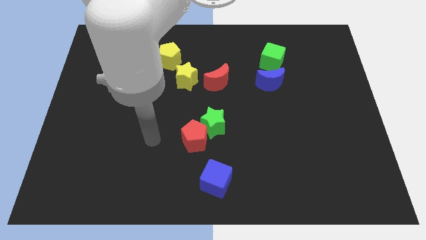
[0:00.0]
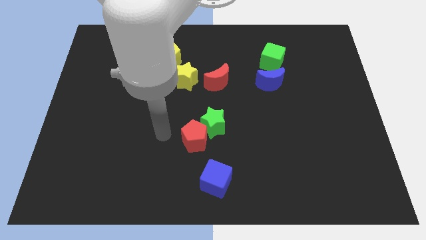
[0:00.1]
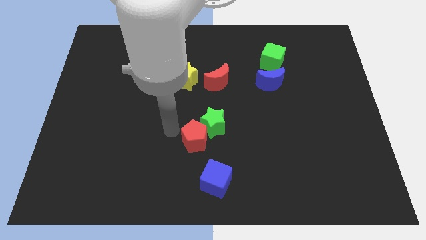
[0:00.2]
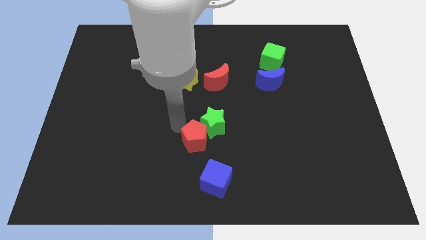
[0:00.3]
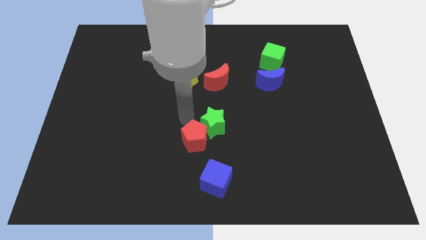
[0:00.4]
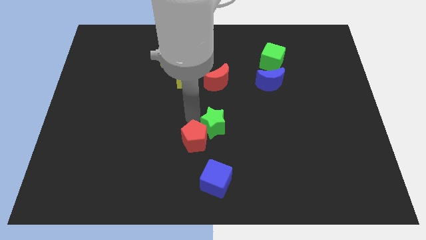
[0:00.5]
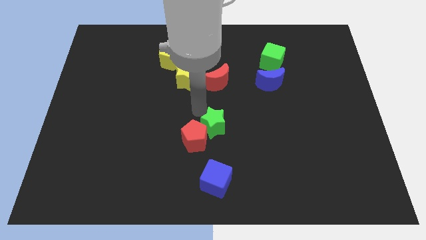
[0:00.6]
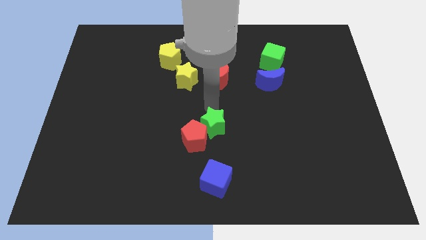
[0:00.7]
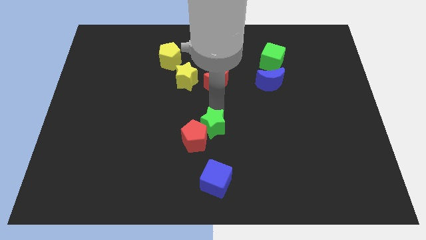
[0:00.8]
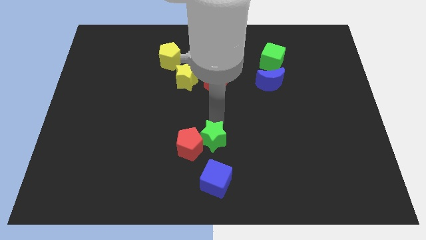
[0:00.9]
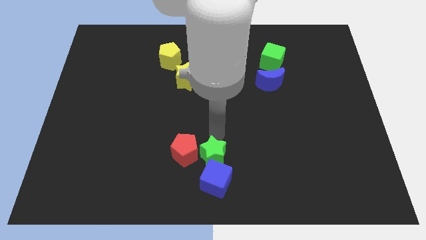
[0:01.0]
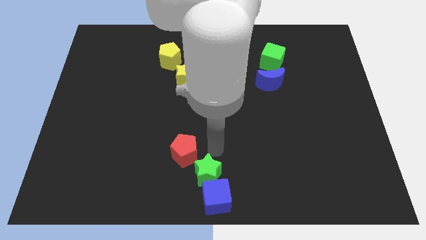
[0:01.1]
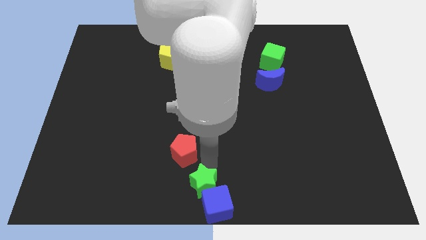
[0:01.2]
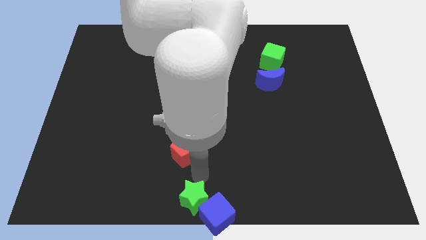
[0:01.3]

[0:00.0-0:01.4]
move the red pentagon away from the green star

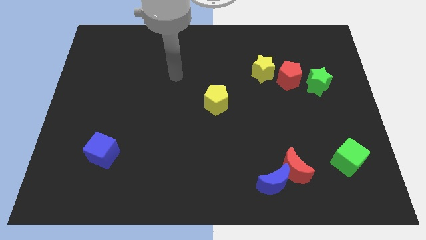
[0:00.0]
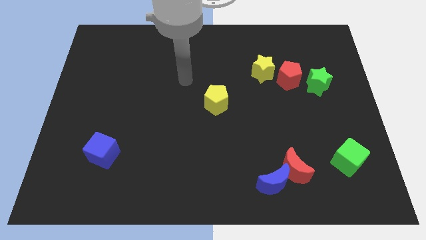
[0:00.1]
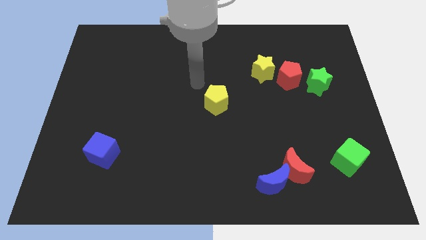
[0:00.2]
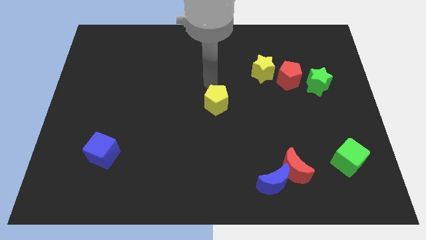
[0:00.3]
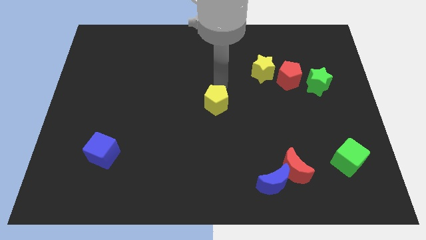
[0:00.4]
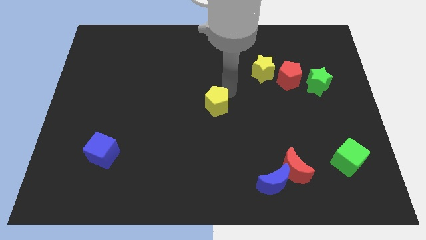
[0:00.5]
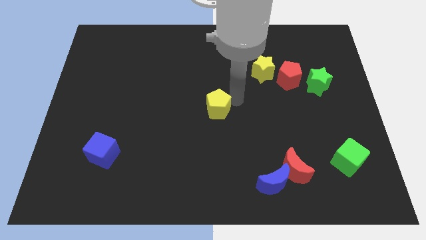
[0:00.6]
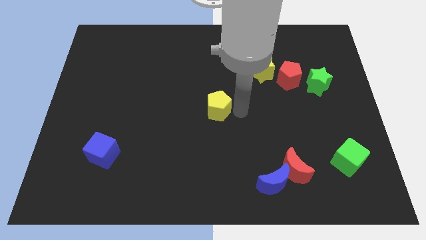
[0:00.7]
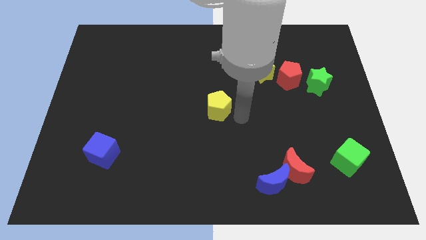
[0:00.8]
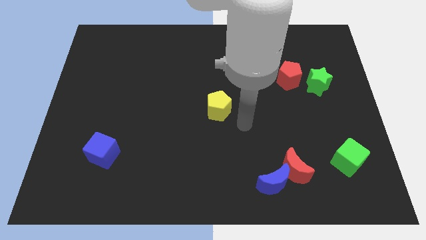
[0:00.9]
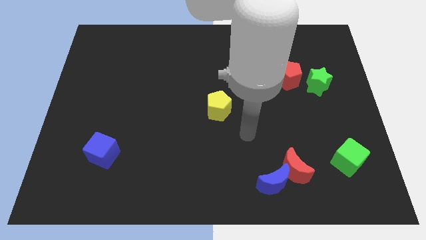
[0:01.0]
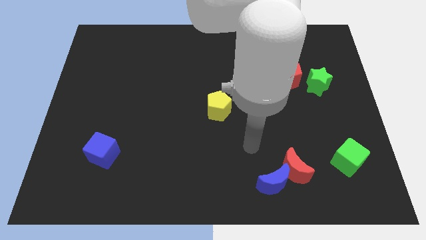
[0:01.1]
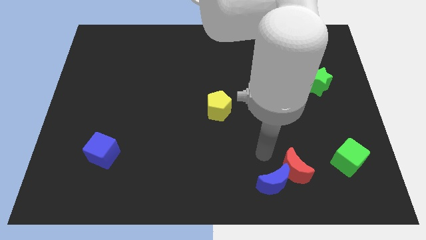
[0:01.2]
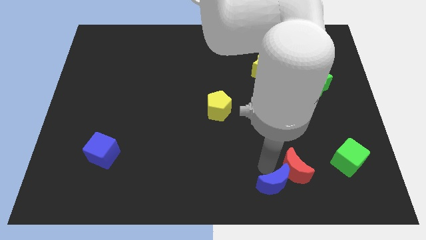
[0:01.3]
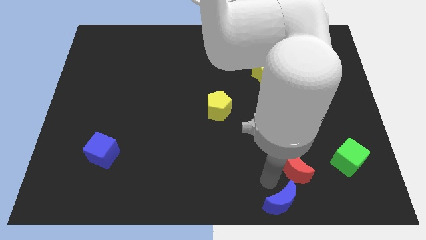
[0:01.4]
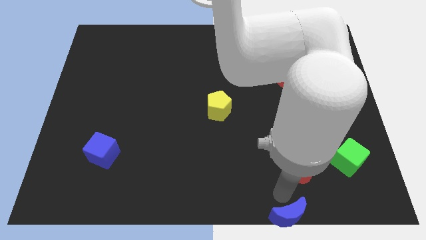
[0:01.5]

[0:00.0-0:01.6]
separate the red moon from the blue moon

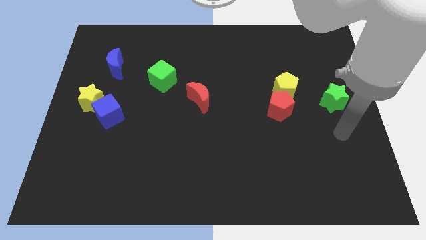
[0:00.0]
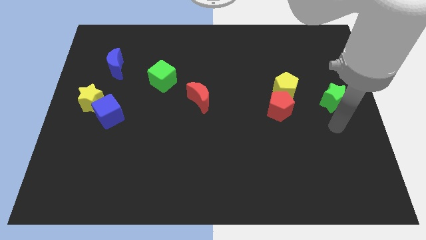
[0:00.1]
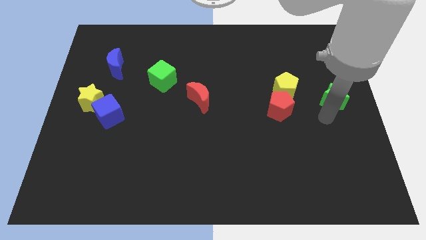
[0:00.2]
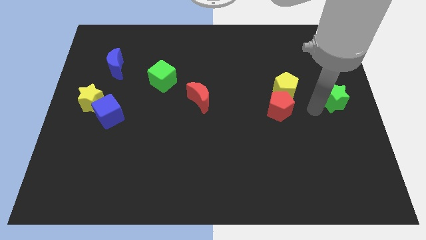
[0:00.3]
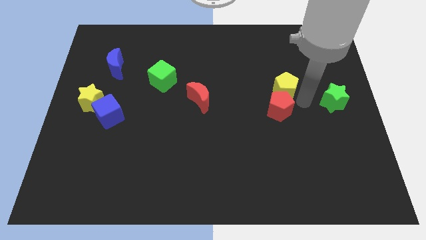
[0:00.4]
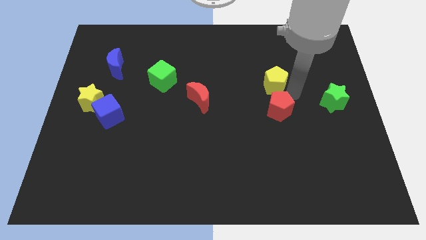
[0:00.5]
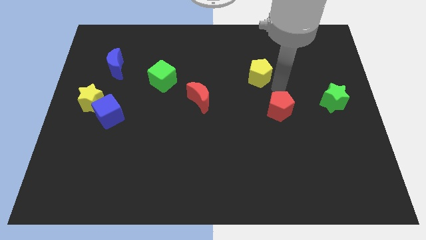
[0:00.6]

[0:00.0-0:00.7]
pull the red pentagon apart from the yellow pentagon

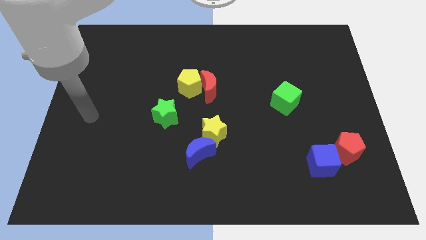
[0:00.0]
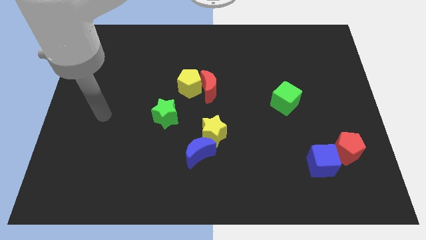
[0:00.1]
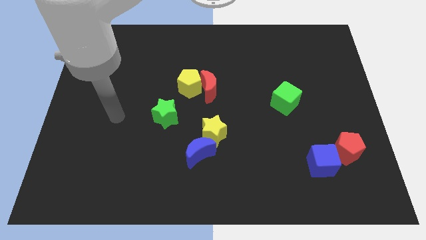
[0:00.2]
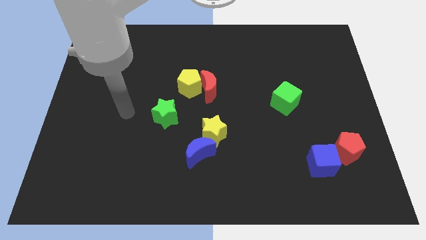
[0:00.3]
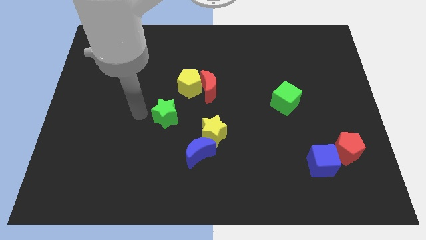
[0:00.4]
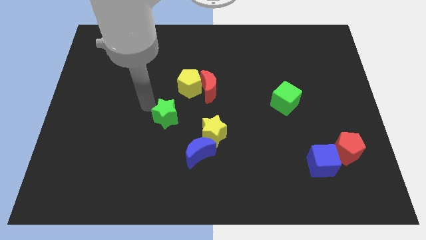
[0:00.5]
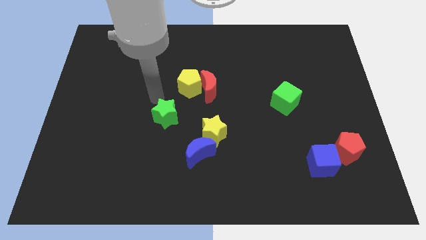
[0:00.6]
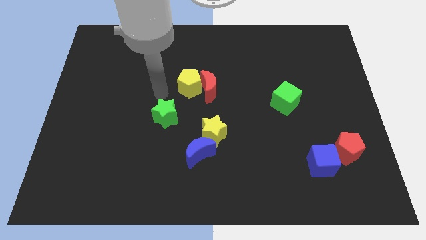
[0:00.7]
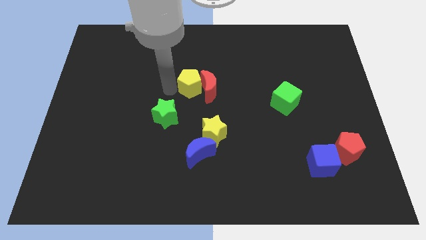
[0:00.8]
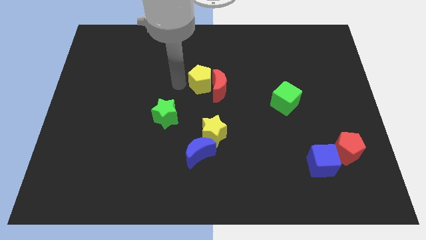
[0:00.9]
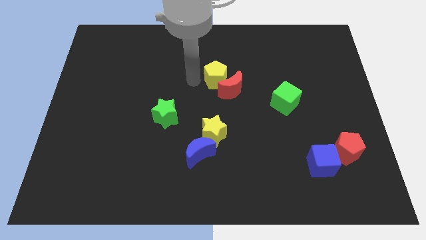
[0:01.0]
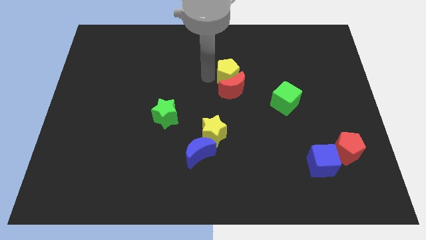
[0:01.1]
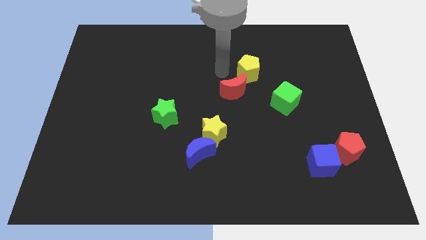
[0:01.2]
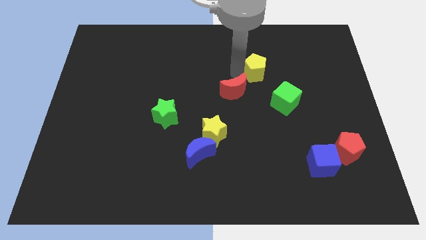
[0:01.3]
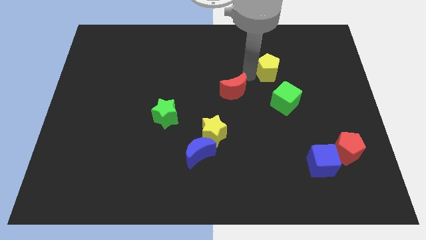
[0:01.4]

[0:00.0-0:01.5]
move the red moon away from the yellow pentagon

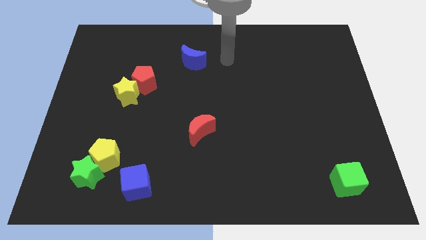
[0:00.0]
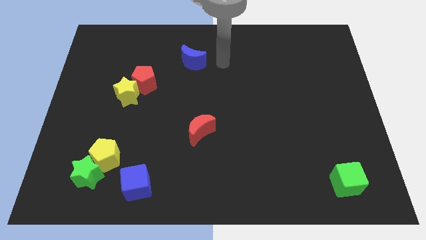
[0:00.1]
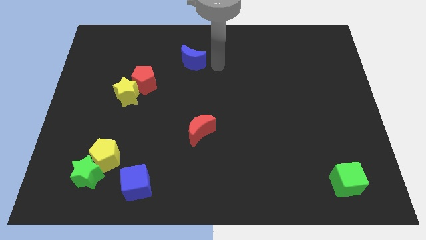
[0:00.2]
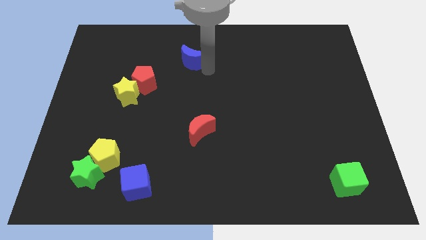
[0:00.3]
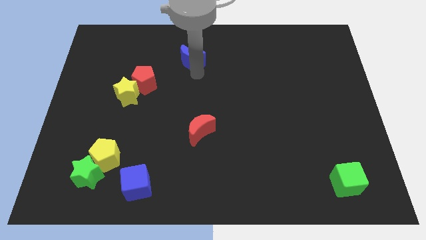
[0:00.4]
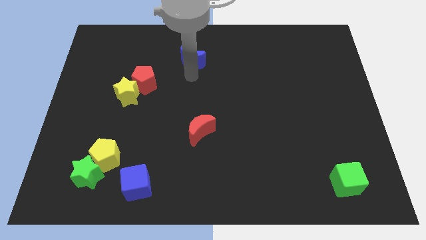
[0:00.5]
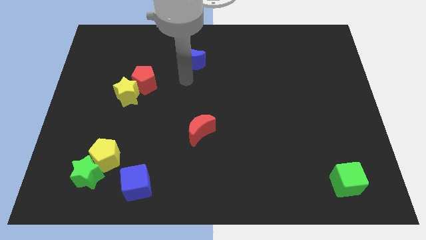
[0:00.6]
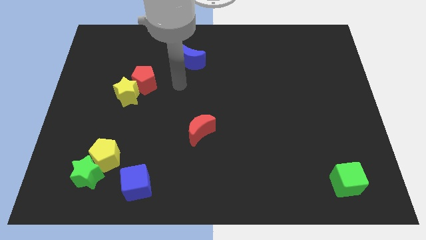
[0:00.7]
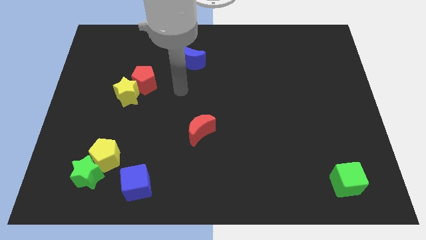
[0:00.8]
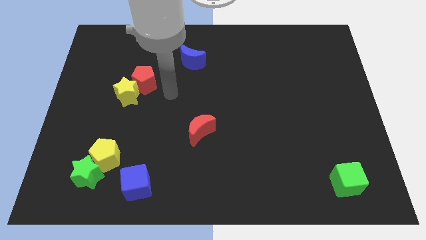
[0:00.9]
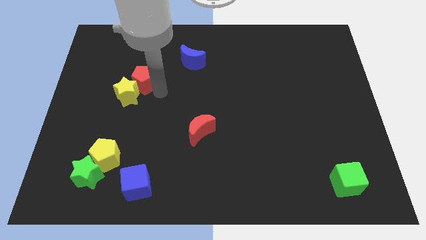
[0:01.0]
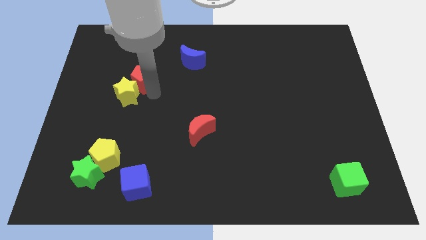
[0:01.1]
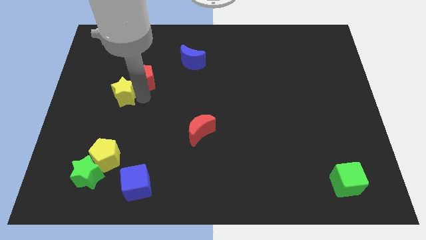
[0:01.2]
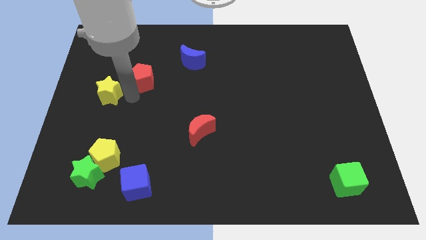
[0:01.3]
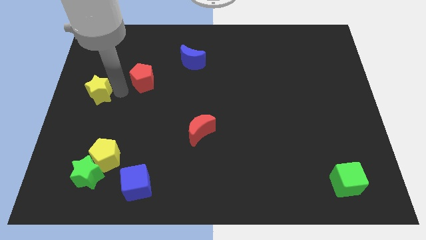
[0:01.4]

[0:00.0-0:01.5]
pull the red pentagon apart from the yellow star

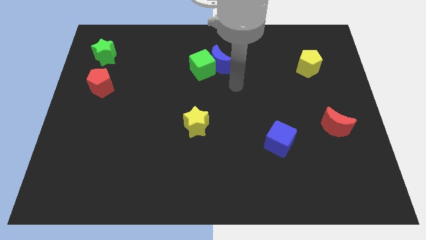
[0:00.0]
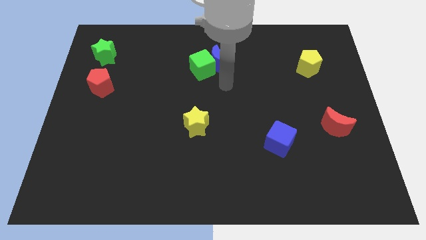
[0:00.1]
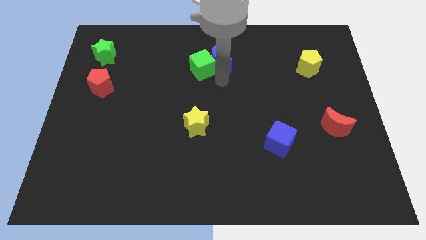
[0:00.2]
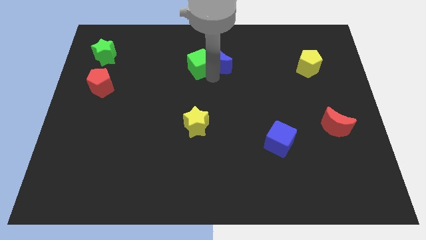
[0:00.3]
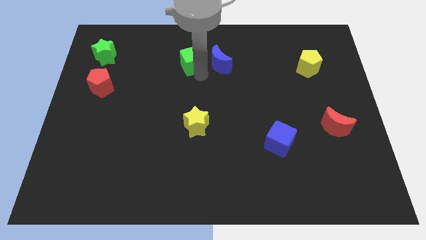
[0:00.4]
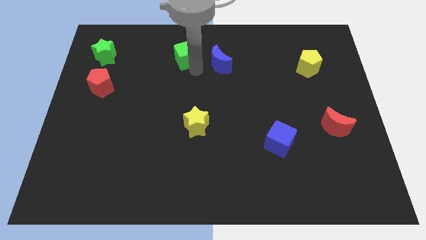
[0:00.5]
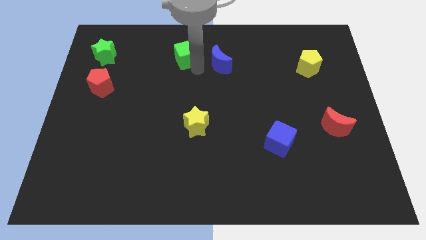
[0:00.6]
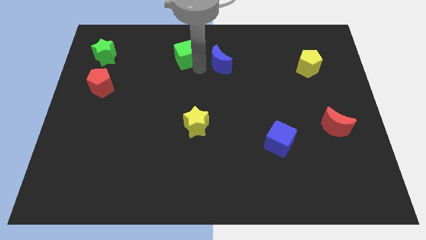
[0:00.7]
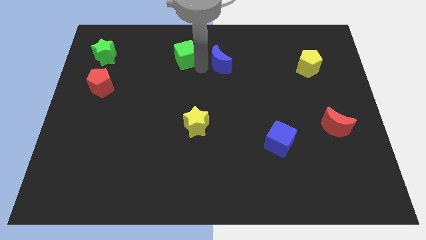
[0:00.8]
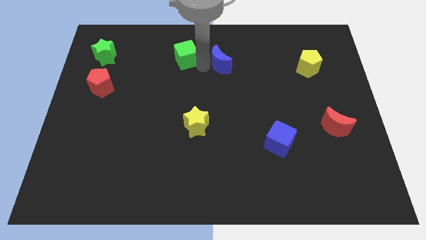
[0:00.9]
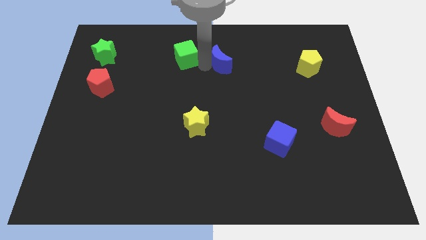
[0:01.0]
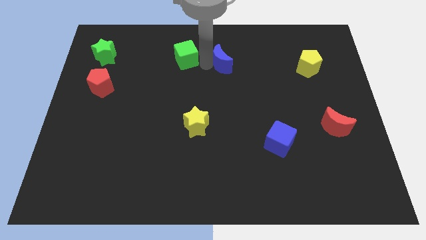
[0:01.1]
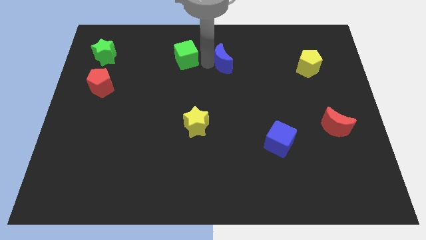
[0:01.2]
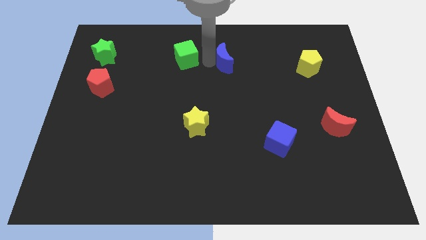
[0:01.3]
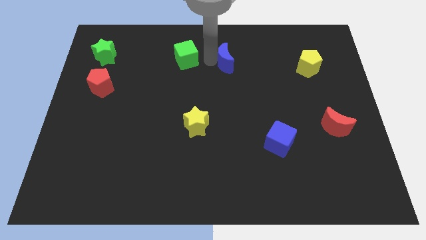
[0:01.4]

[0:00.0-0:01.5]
pull the blue moon apart from the green cube

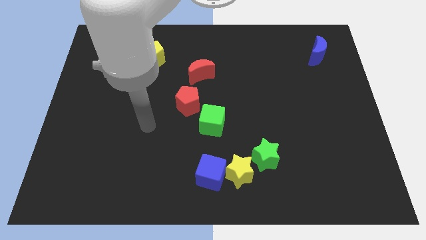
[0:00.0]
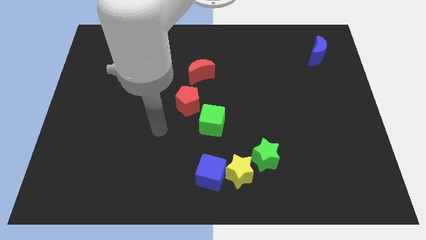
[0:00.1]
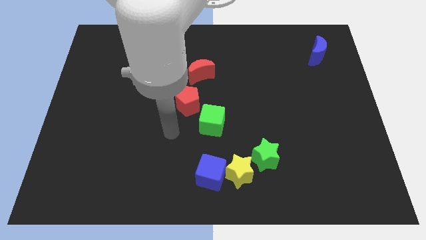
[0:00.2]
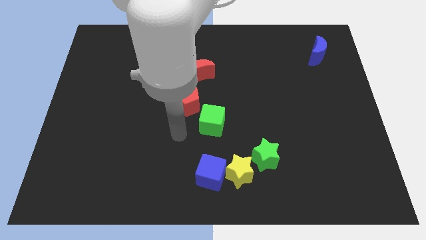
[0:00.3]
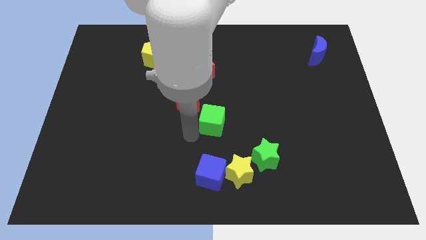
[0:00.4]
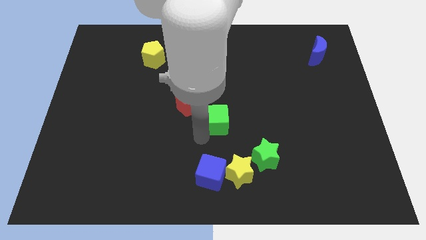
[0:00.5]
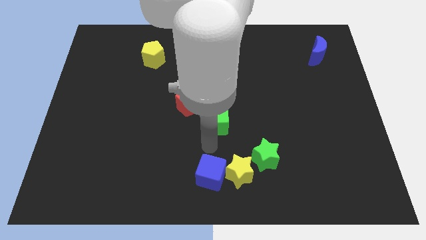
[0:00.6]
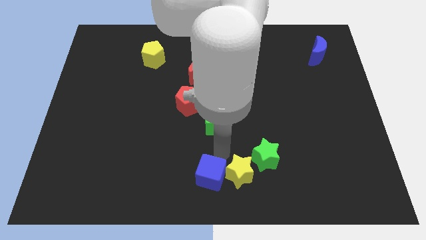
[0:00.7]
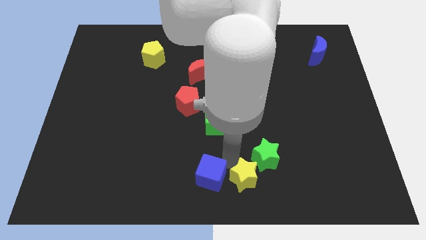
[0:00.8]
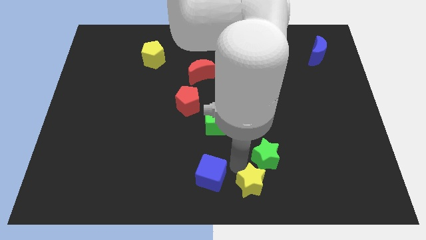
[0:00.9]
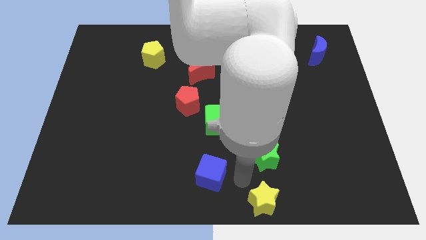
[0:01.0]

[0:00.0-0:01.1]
separate the blue cube from the yellow star
